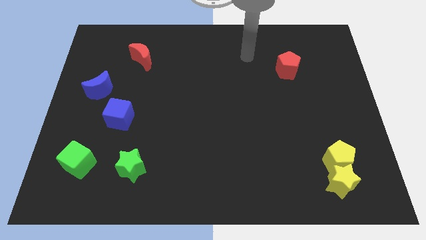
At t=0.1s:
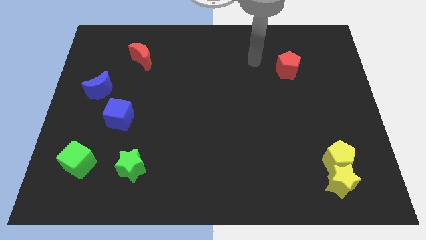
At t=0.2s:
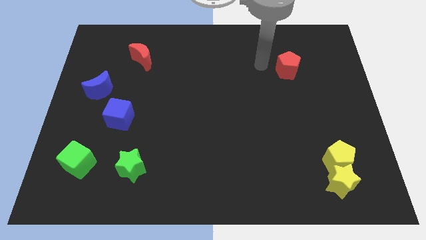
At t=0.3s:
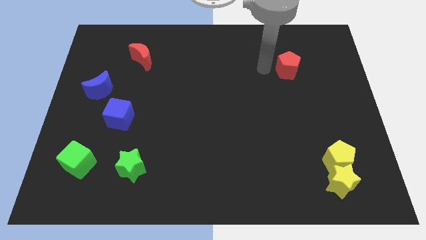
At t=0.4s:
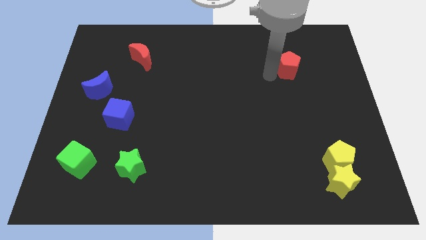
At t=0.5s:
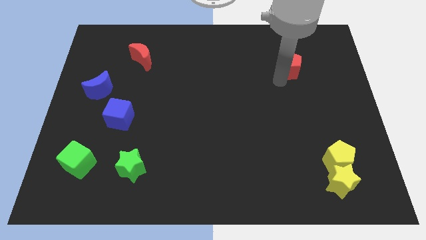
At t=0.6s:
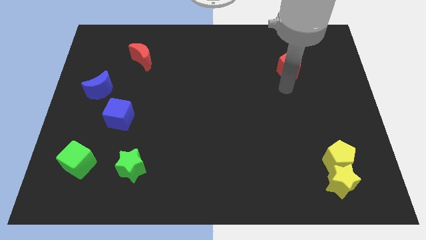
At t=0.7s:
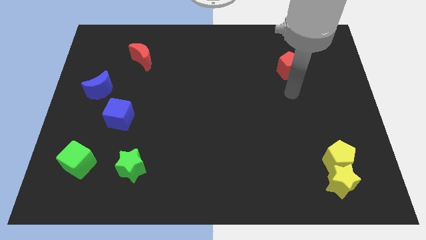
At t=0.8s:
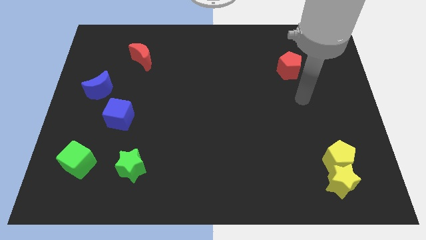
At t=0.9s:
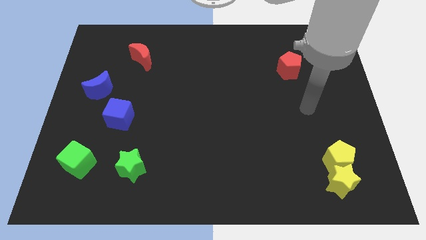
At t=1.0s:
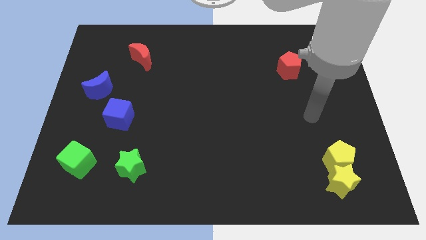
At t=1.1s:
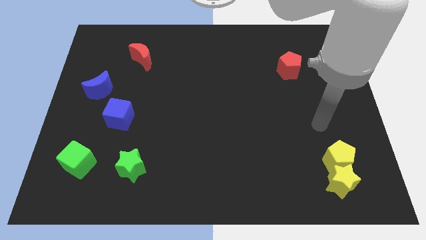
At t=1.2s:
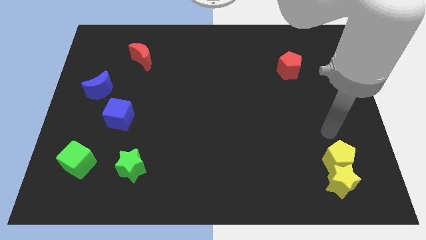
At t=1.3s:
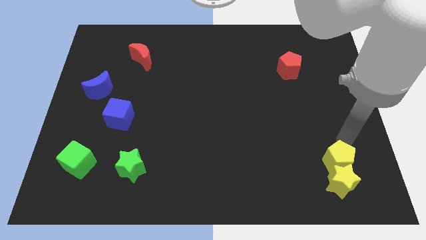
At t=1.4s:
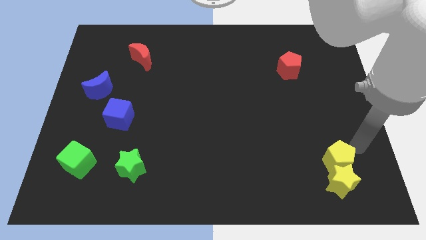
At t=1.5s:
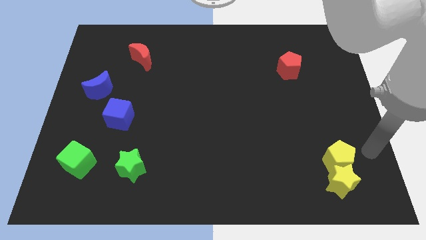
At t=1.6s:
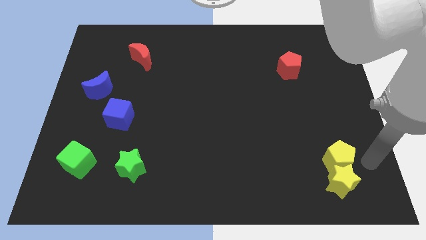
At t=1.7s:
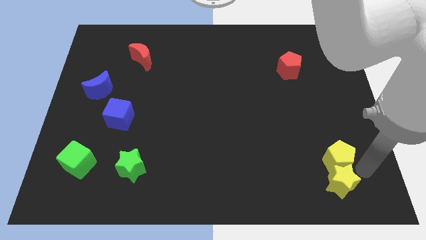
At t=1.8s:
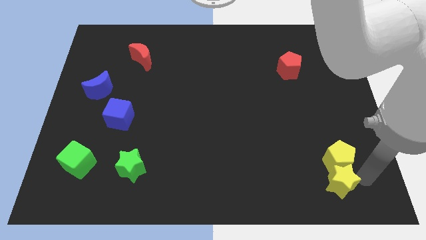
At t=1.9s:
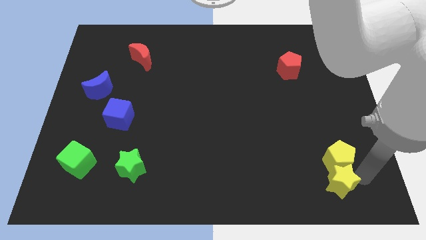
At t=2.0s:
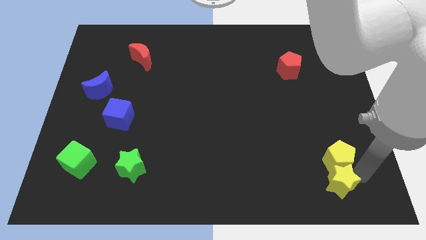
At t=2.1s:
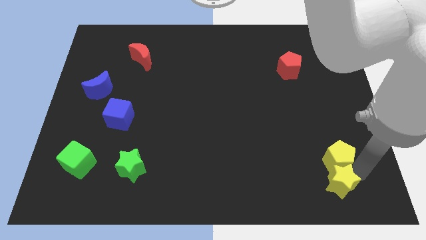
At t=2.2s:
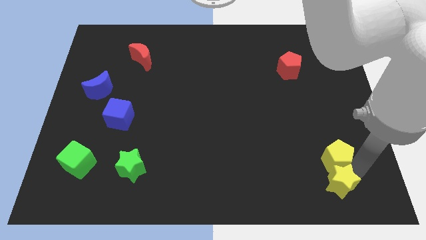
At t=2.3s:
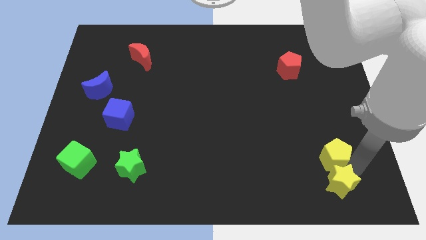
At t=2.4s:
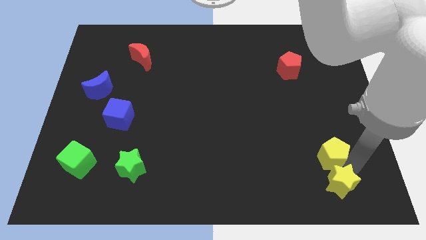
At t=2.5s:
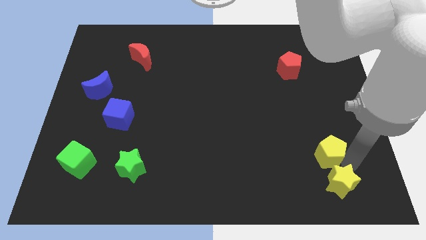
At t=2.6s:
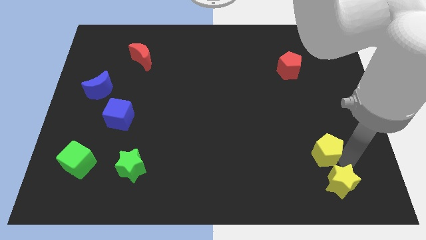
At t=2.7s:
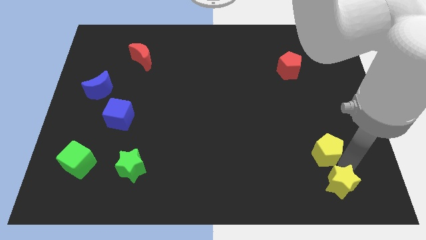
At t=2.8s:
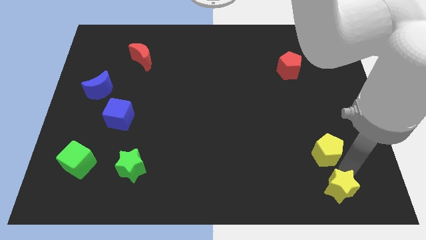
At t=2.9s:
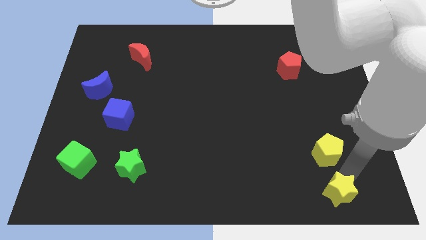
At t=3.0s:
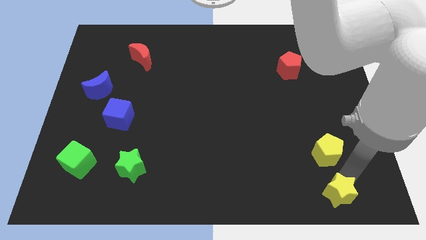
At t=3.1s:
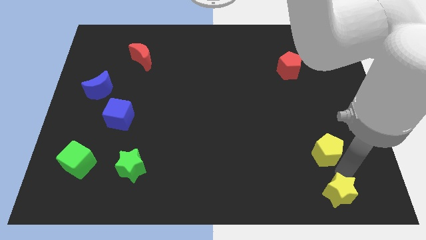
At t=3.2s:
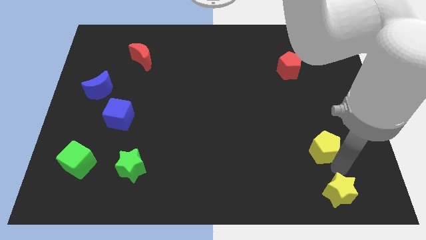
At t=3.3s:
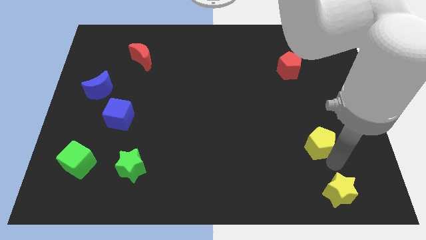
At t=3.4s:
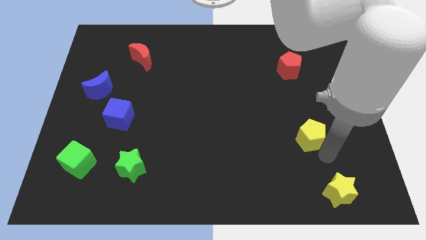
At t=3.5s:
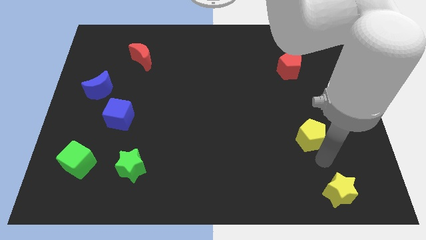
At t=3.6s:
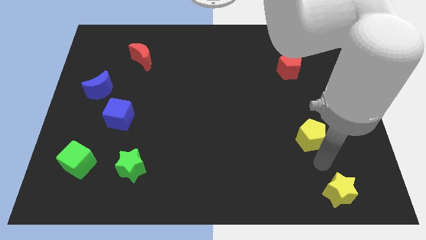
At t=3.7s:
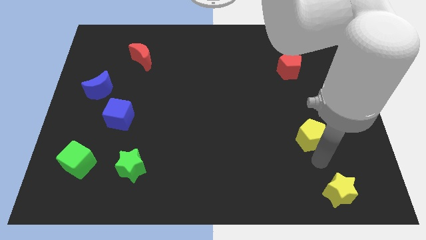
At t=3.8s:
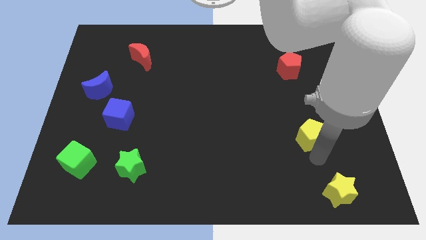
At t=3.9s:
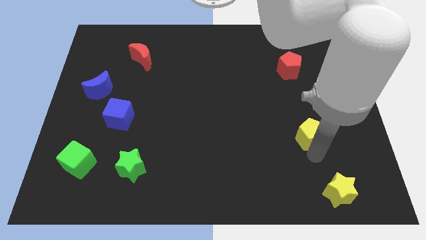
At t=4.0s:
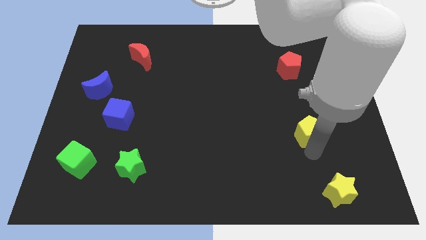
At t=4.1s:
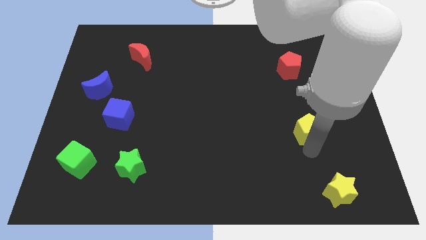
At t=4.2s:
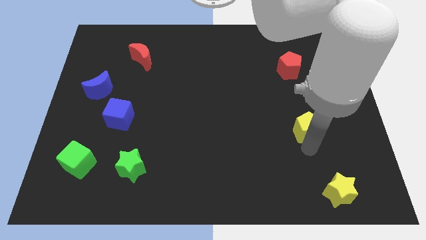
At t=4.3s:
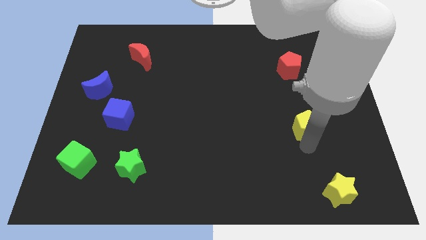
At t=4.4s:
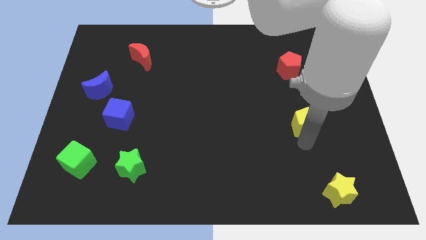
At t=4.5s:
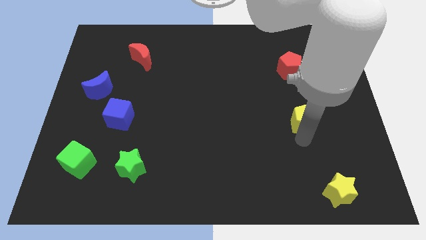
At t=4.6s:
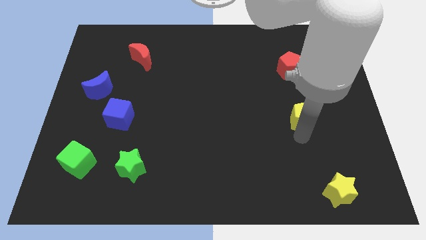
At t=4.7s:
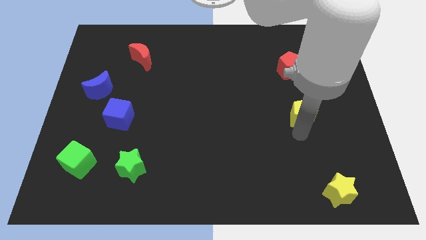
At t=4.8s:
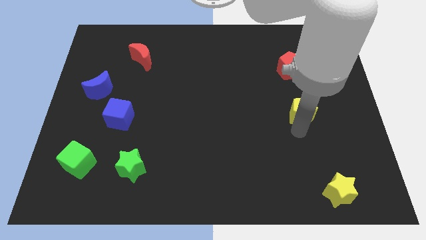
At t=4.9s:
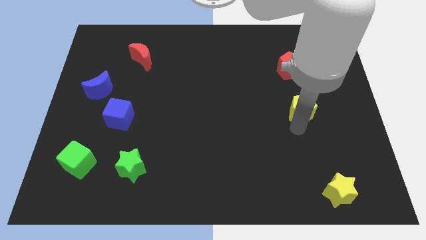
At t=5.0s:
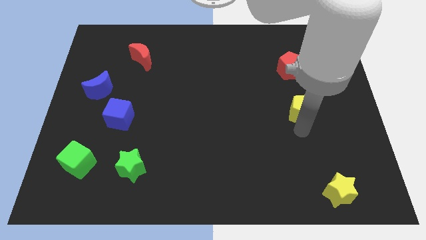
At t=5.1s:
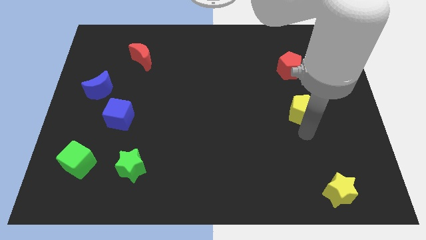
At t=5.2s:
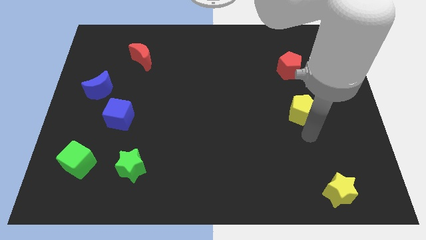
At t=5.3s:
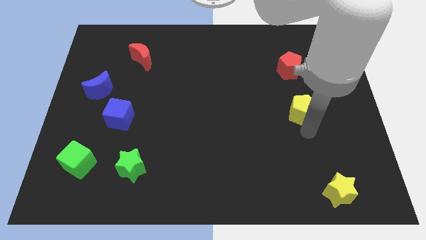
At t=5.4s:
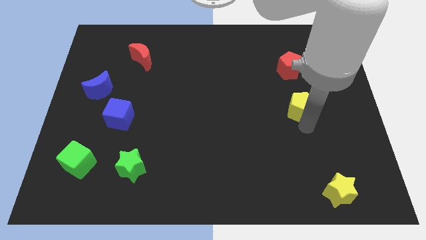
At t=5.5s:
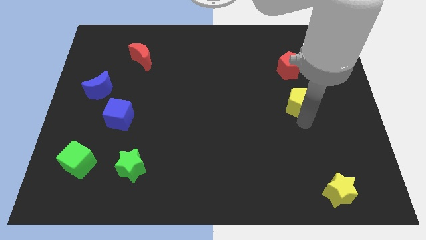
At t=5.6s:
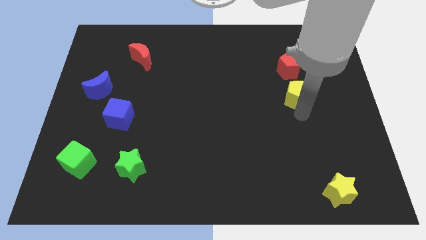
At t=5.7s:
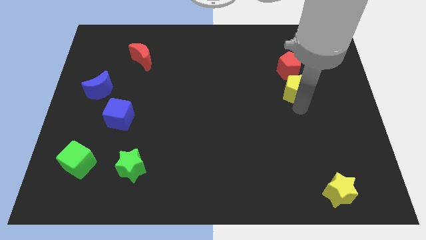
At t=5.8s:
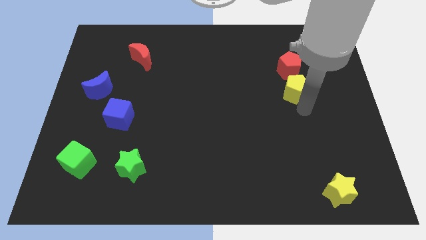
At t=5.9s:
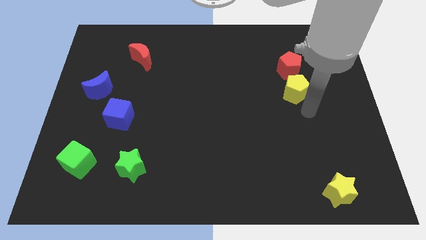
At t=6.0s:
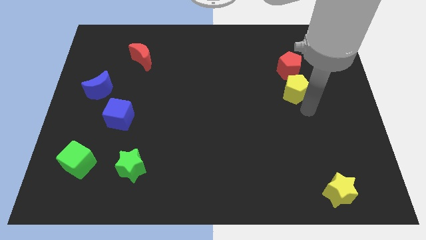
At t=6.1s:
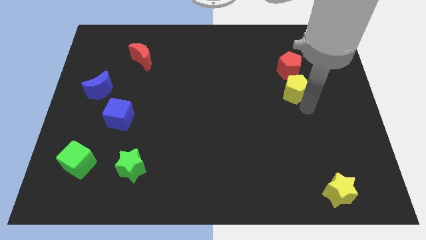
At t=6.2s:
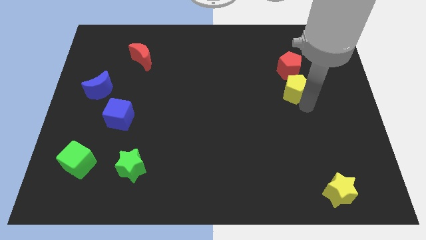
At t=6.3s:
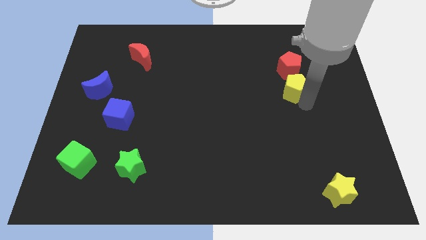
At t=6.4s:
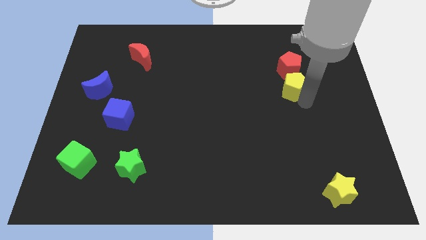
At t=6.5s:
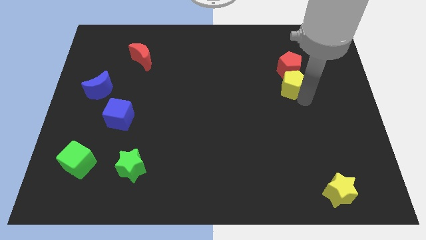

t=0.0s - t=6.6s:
slide the yellow pentagon next to the red pentagon

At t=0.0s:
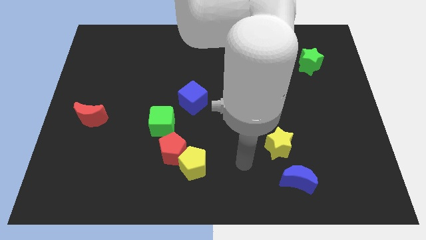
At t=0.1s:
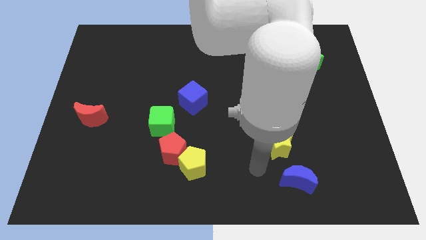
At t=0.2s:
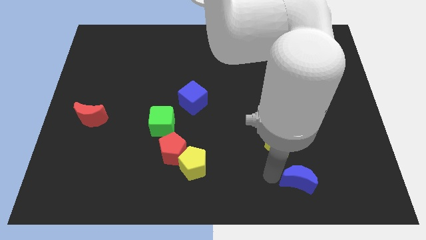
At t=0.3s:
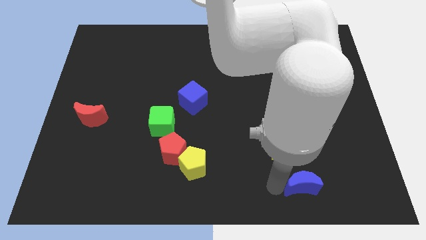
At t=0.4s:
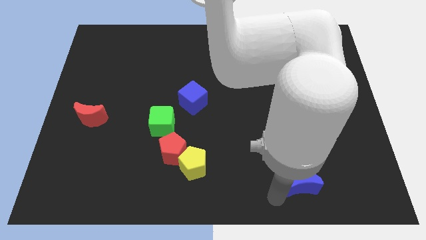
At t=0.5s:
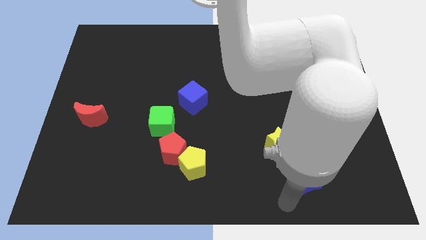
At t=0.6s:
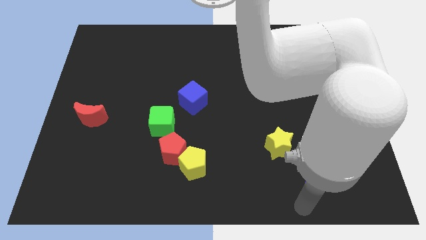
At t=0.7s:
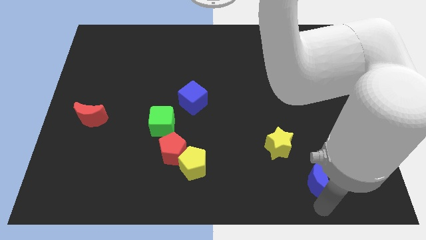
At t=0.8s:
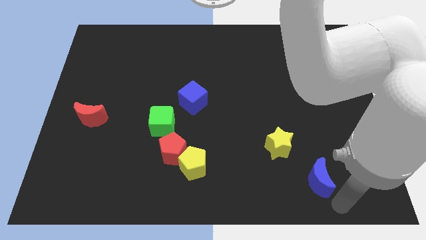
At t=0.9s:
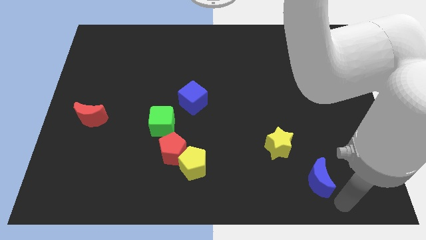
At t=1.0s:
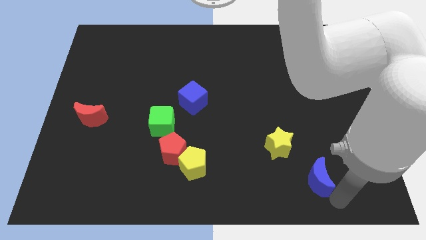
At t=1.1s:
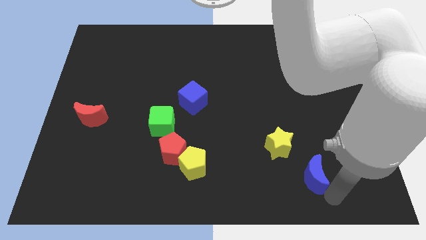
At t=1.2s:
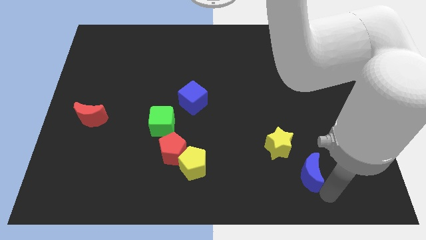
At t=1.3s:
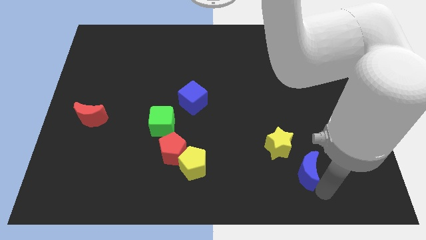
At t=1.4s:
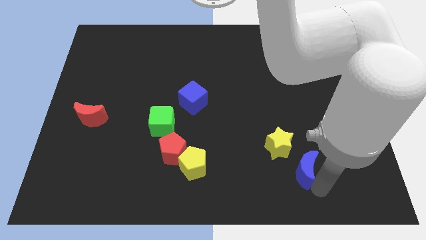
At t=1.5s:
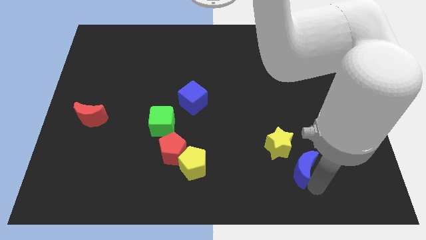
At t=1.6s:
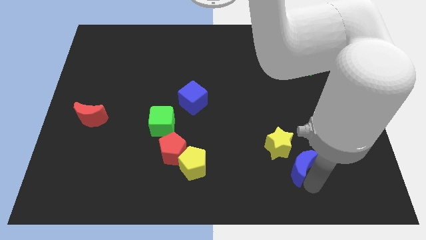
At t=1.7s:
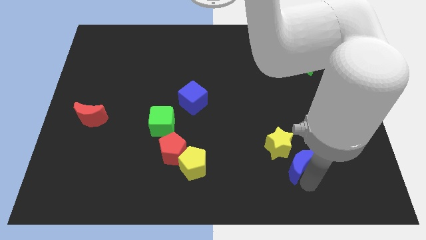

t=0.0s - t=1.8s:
put the blue moon close to the yellow star
